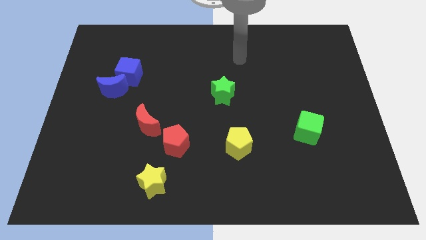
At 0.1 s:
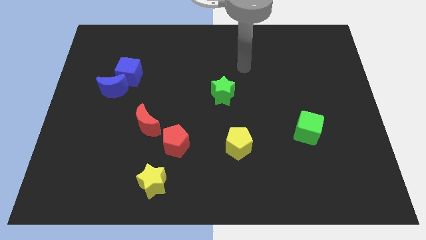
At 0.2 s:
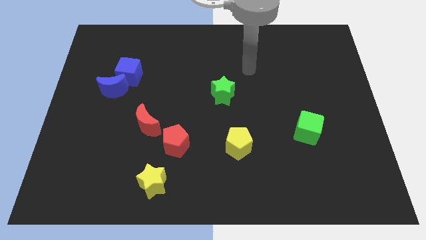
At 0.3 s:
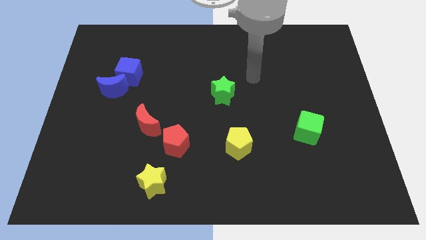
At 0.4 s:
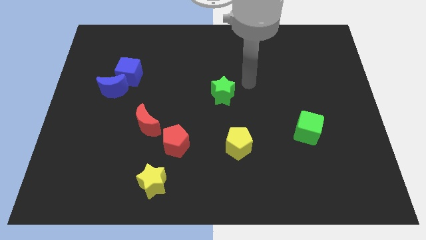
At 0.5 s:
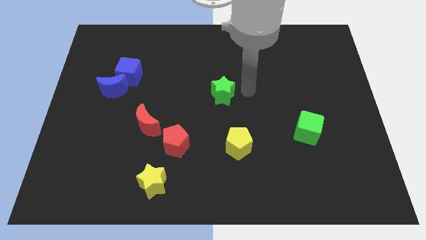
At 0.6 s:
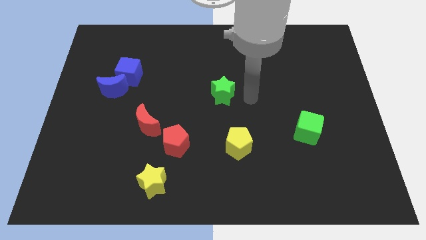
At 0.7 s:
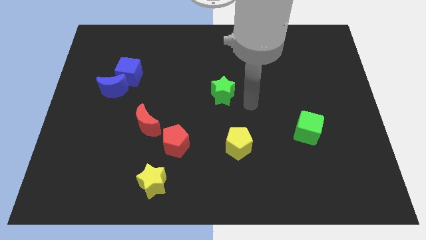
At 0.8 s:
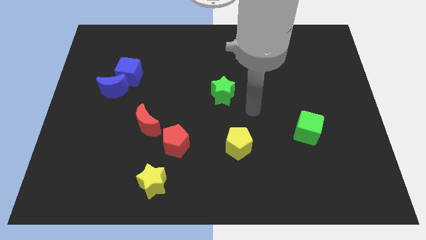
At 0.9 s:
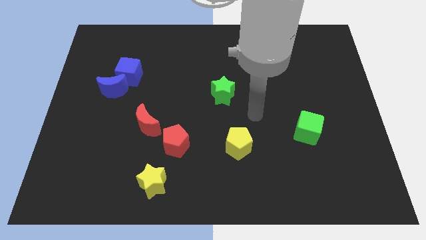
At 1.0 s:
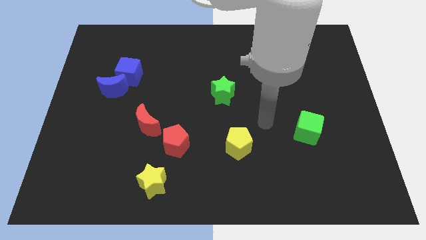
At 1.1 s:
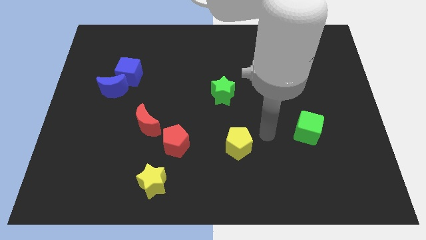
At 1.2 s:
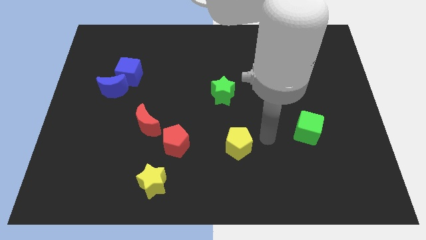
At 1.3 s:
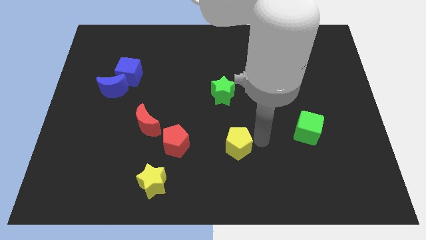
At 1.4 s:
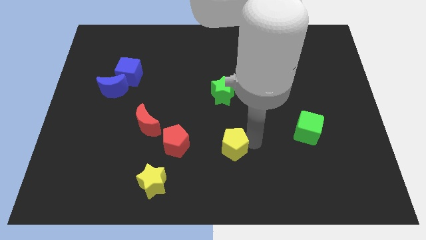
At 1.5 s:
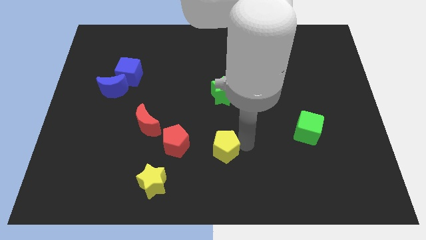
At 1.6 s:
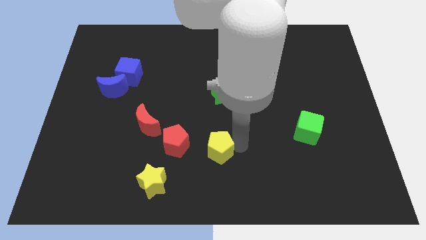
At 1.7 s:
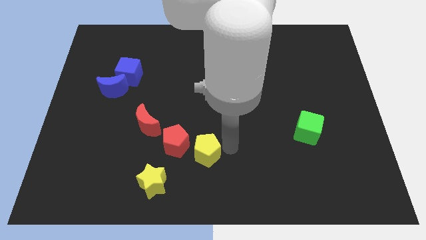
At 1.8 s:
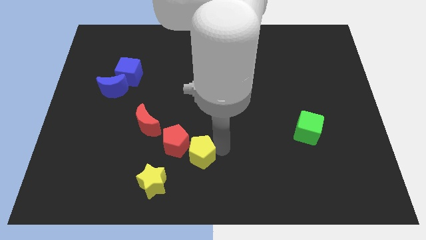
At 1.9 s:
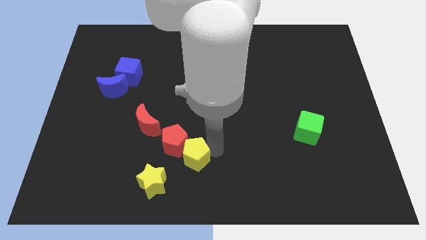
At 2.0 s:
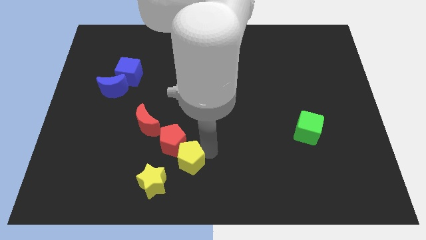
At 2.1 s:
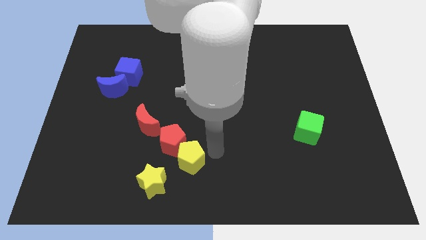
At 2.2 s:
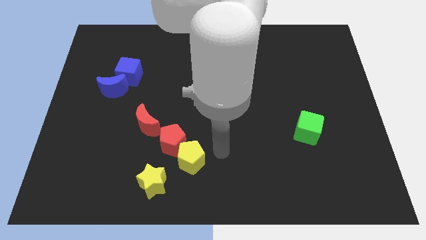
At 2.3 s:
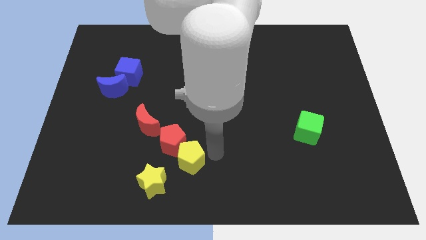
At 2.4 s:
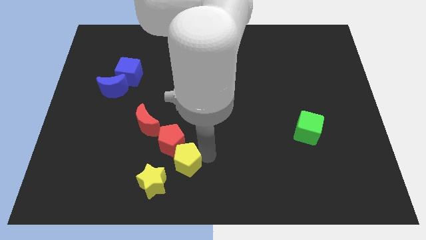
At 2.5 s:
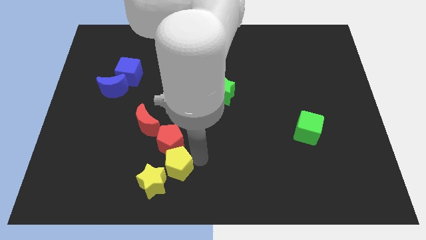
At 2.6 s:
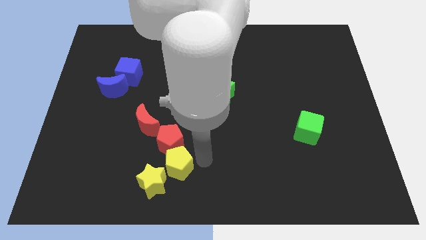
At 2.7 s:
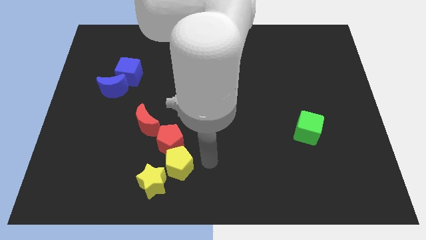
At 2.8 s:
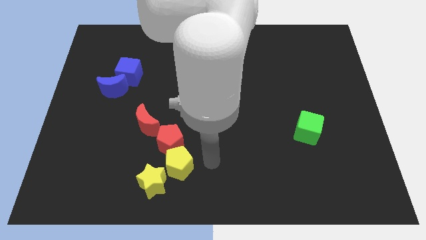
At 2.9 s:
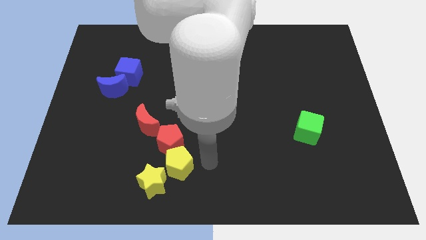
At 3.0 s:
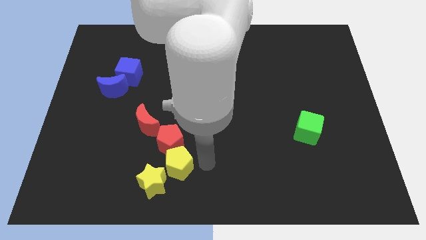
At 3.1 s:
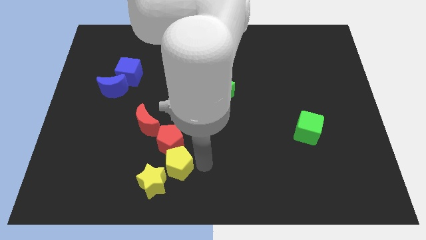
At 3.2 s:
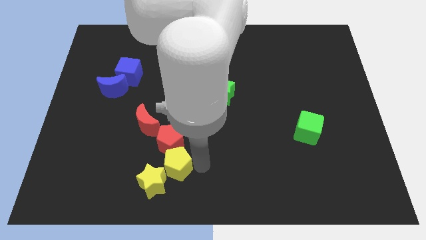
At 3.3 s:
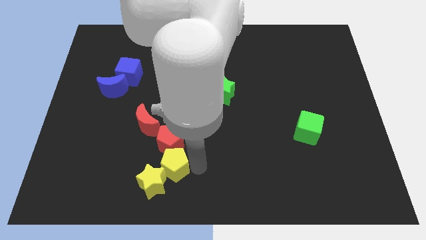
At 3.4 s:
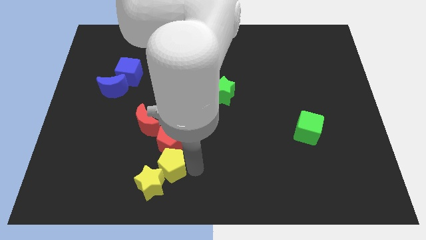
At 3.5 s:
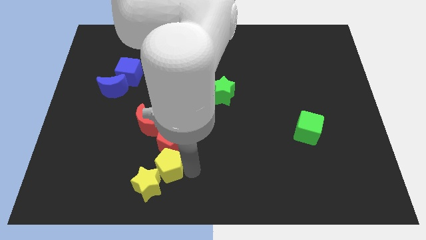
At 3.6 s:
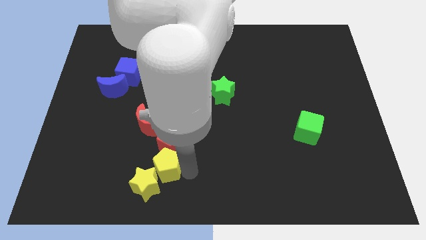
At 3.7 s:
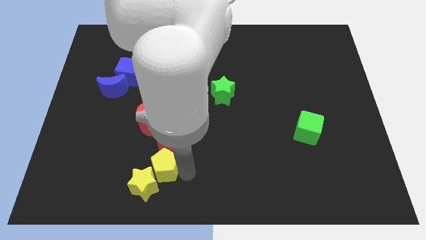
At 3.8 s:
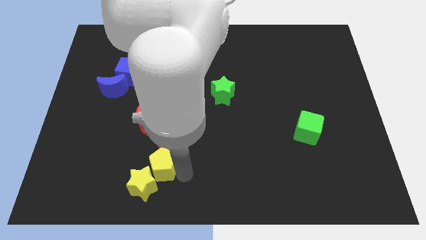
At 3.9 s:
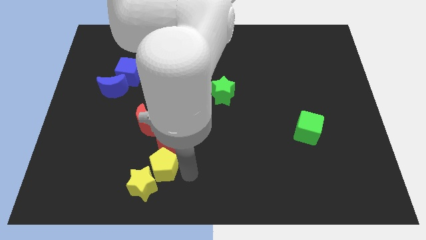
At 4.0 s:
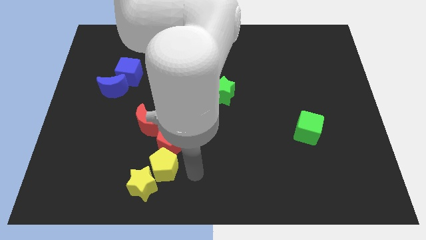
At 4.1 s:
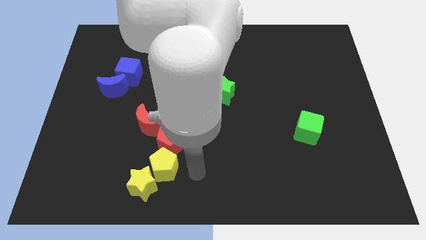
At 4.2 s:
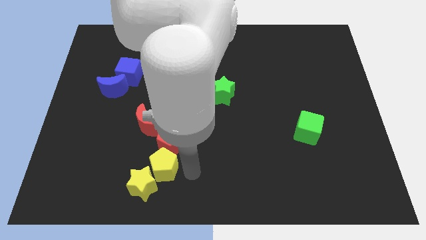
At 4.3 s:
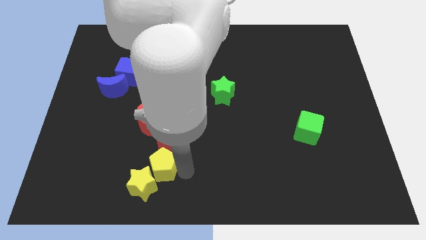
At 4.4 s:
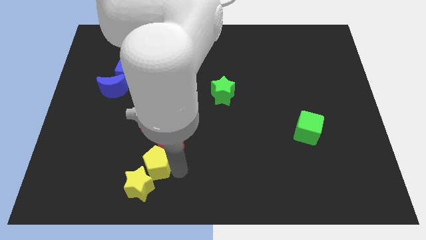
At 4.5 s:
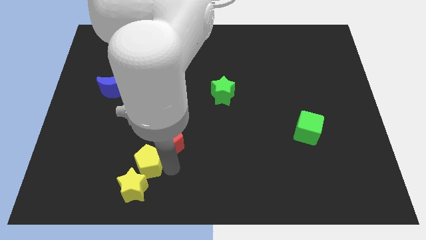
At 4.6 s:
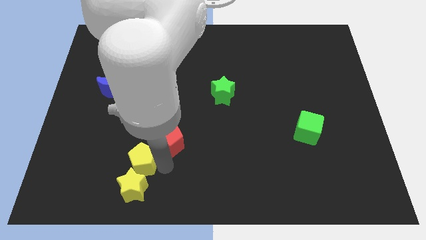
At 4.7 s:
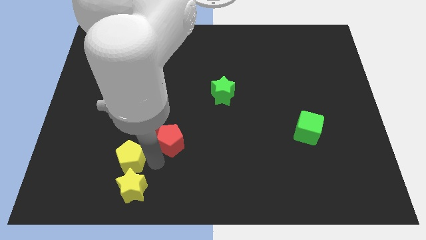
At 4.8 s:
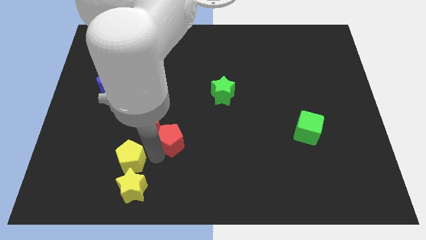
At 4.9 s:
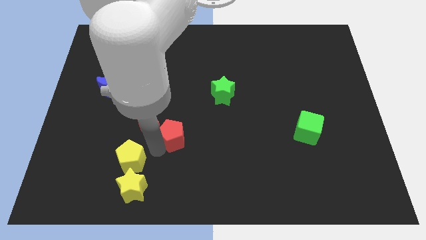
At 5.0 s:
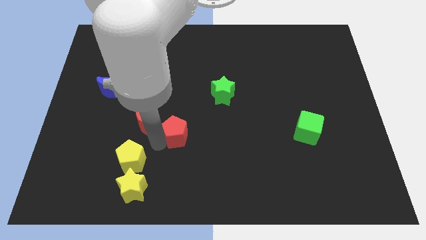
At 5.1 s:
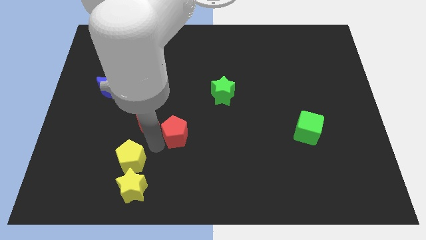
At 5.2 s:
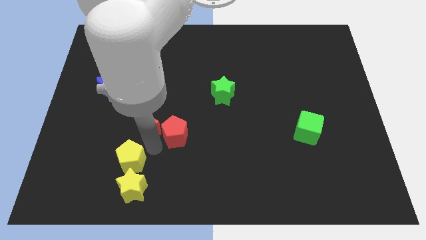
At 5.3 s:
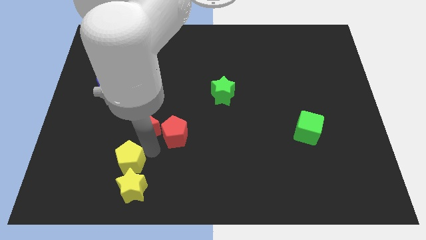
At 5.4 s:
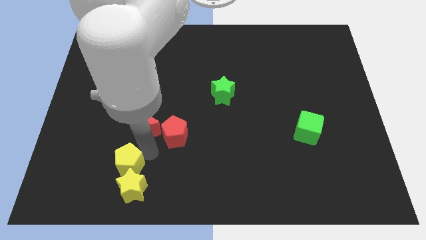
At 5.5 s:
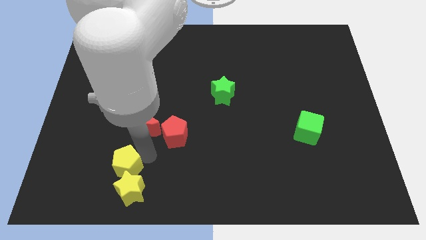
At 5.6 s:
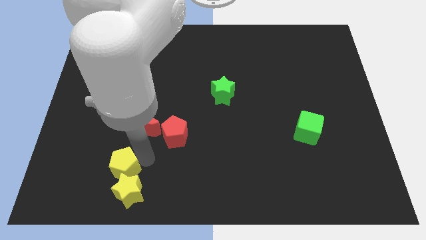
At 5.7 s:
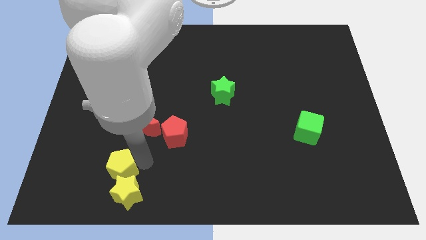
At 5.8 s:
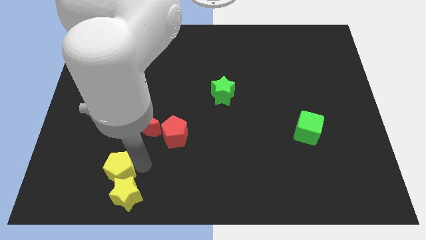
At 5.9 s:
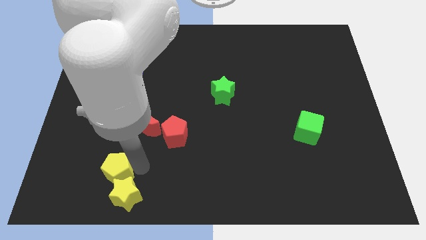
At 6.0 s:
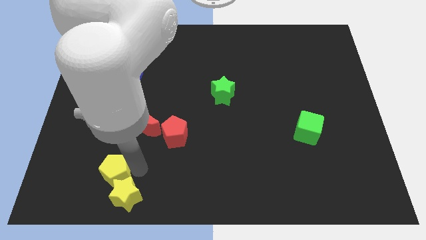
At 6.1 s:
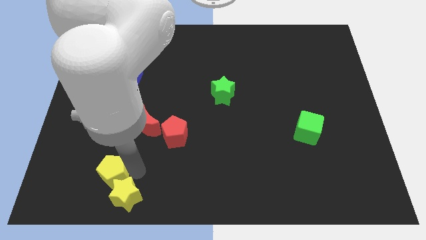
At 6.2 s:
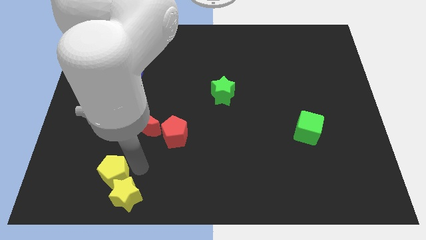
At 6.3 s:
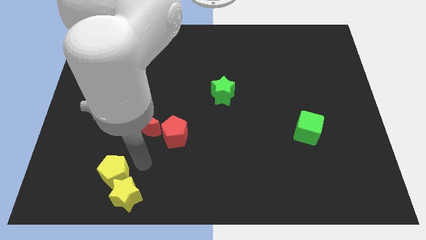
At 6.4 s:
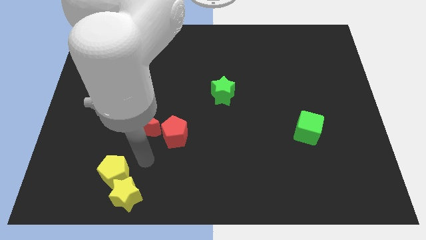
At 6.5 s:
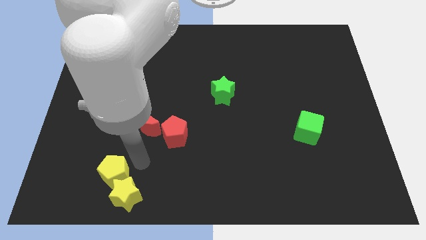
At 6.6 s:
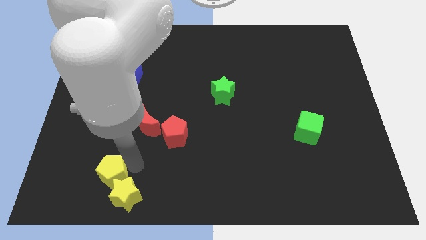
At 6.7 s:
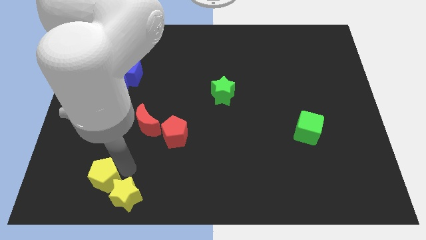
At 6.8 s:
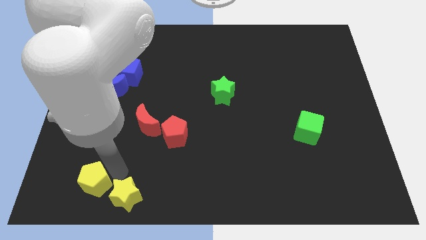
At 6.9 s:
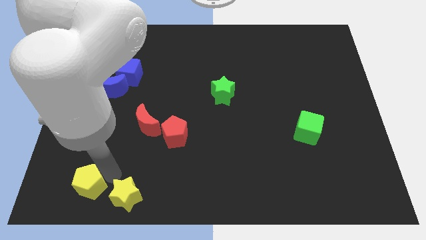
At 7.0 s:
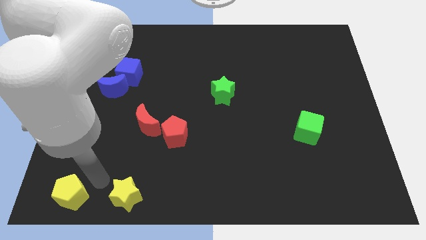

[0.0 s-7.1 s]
move the yellow pentagon to the bottom left of the board
